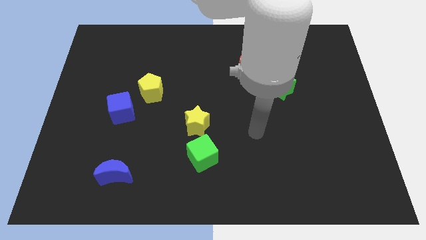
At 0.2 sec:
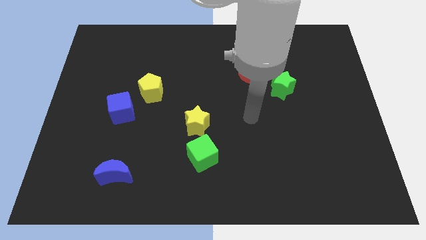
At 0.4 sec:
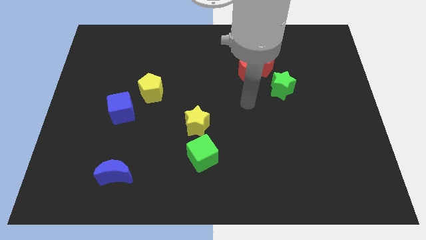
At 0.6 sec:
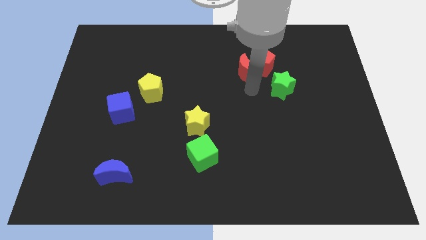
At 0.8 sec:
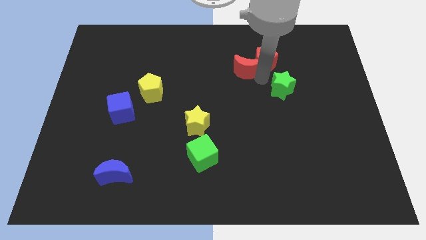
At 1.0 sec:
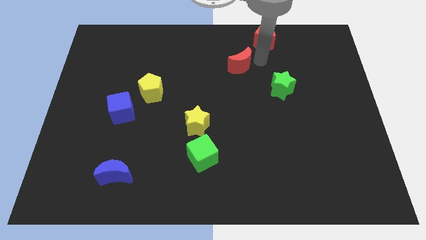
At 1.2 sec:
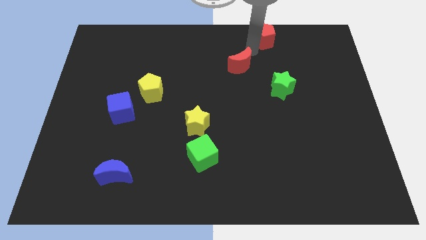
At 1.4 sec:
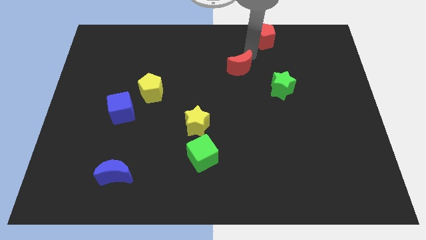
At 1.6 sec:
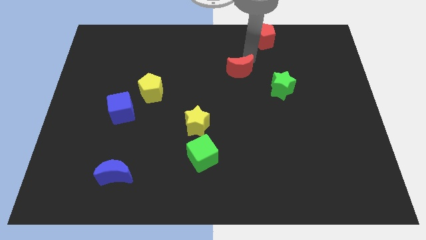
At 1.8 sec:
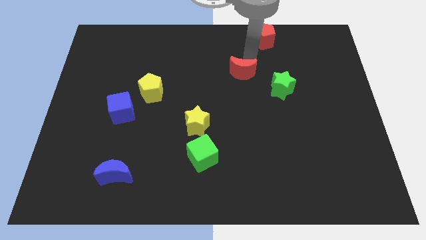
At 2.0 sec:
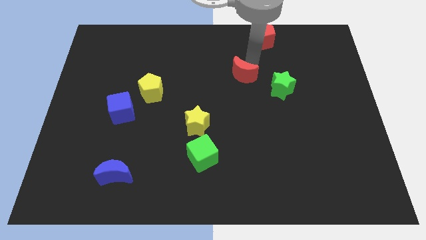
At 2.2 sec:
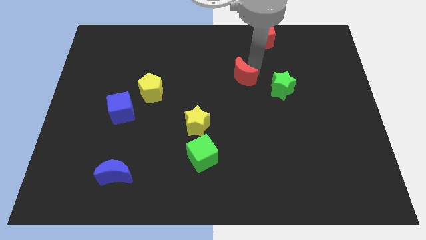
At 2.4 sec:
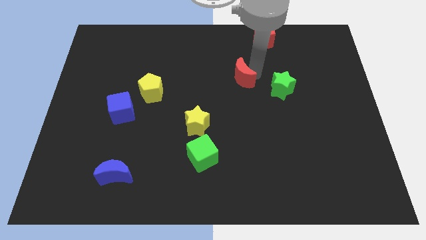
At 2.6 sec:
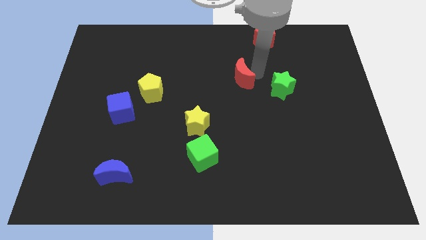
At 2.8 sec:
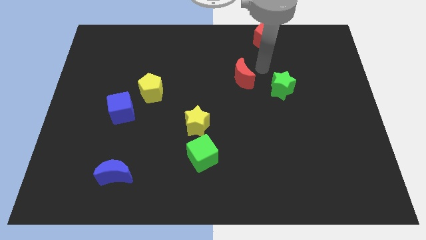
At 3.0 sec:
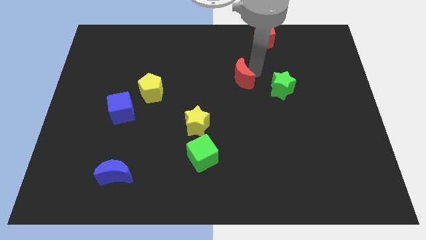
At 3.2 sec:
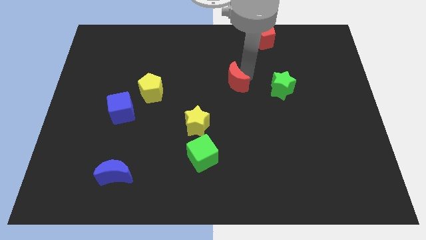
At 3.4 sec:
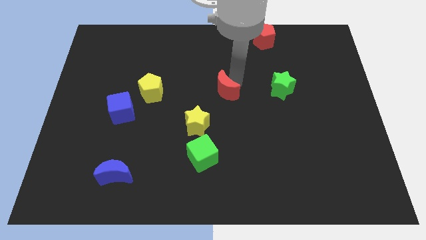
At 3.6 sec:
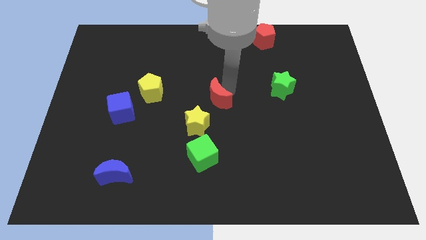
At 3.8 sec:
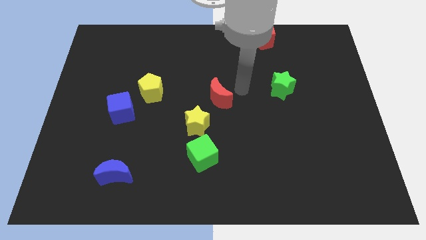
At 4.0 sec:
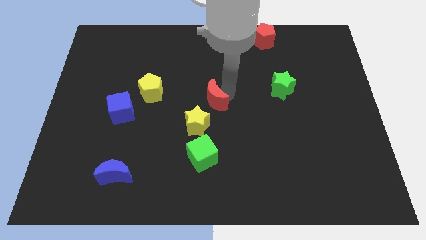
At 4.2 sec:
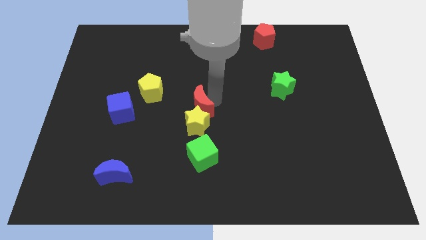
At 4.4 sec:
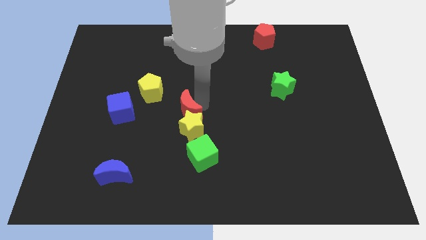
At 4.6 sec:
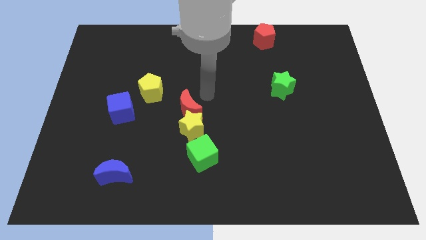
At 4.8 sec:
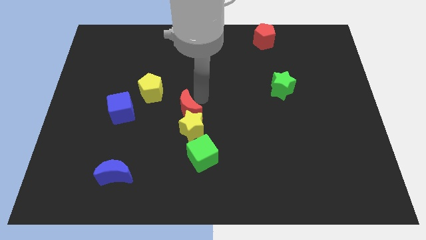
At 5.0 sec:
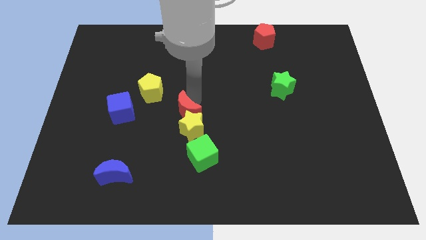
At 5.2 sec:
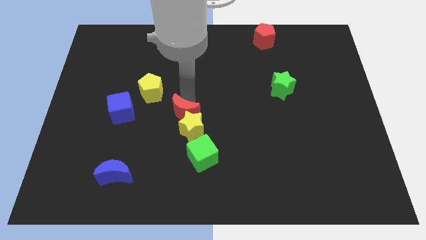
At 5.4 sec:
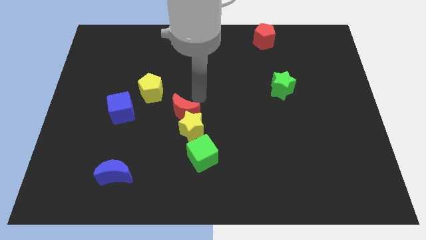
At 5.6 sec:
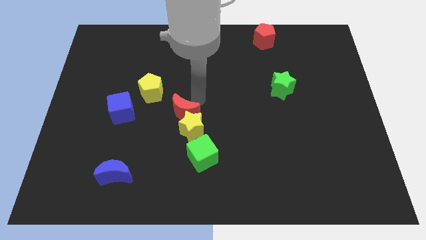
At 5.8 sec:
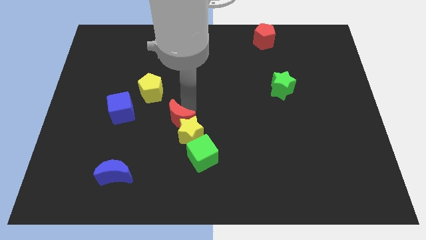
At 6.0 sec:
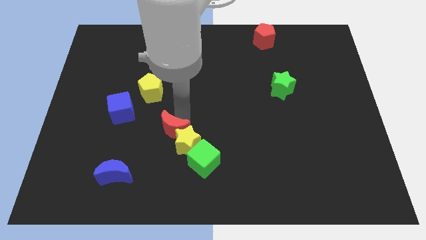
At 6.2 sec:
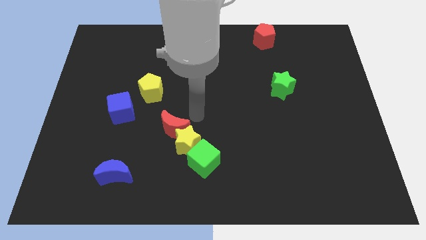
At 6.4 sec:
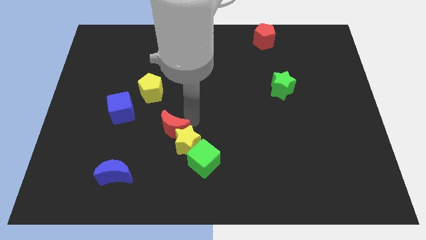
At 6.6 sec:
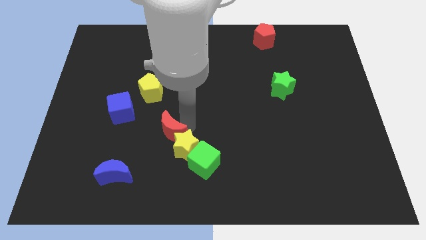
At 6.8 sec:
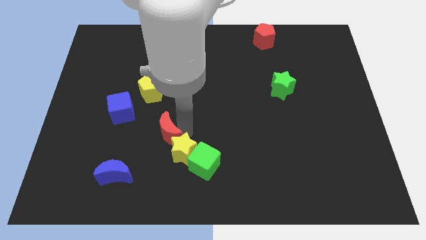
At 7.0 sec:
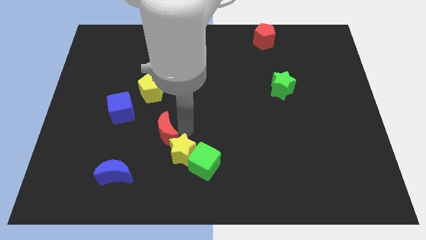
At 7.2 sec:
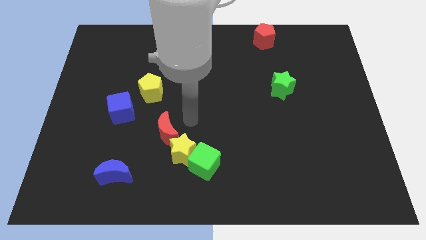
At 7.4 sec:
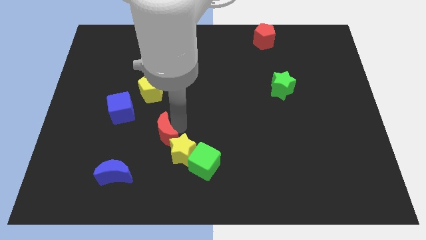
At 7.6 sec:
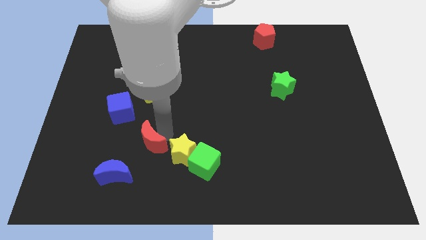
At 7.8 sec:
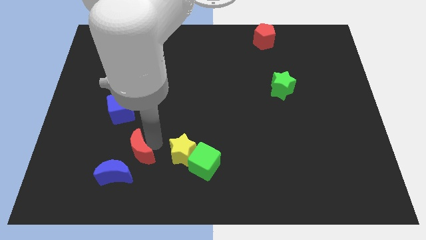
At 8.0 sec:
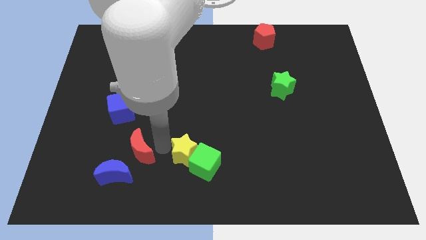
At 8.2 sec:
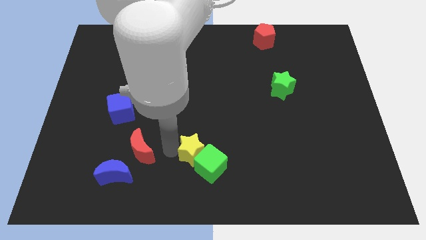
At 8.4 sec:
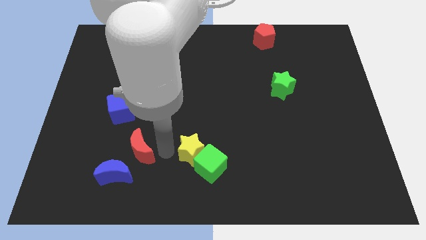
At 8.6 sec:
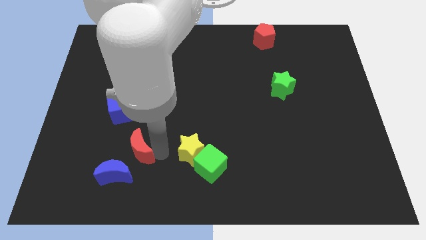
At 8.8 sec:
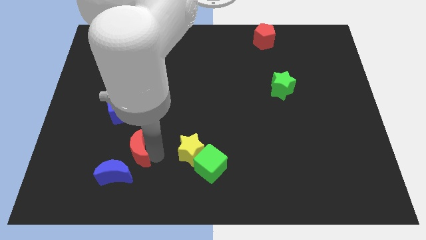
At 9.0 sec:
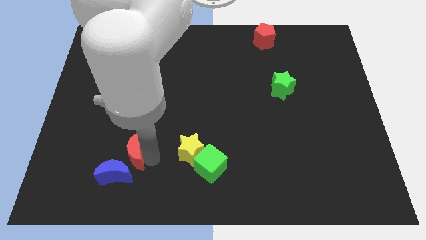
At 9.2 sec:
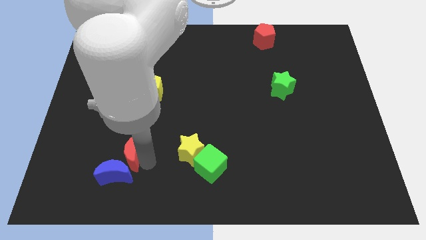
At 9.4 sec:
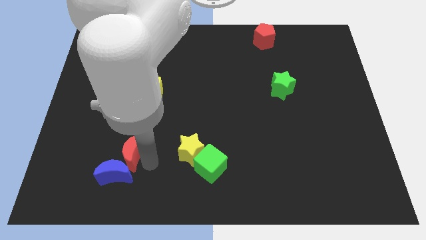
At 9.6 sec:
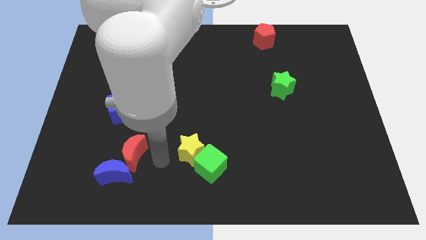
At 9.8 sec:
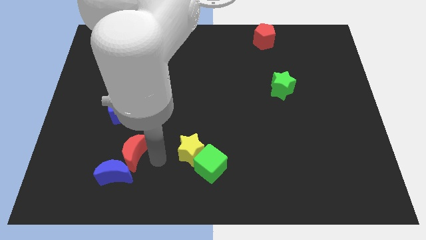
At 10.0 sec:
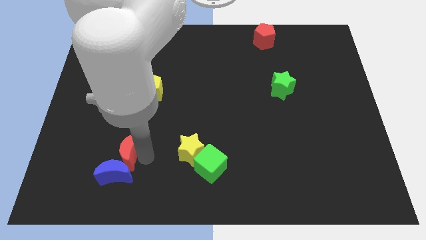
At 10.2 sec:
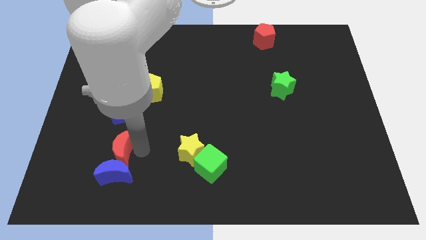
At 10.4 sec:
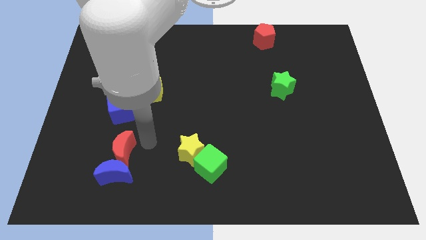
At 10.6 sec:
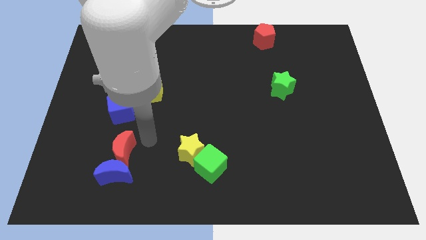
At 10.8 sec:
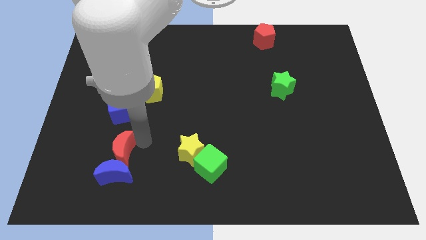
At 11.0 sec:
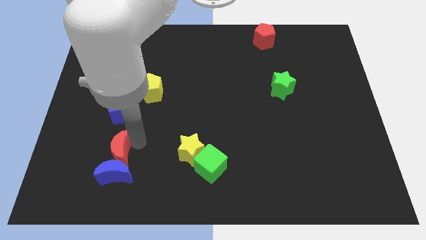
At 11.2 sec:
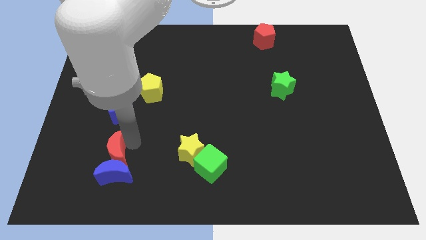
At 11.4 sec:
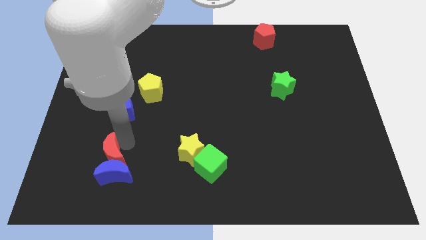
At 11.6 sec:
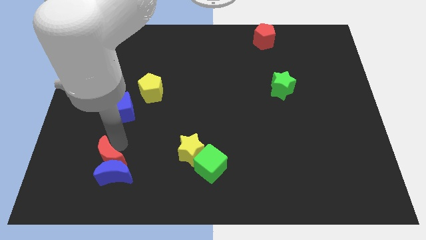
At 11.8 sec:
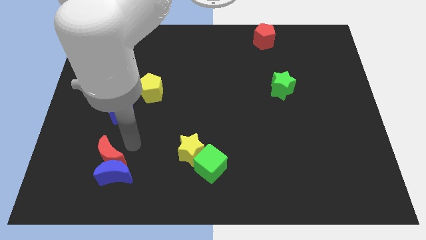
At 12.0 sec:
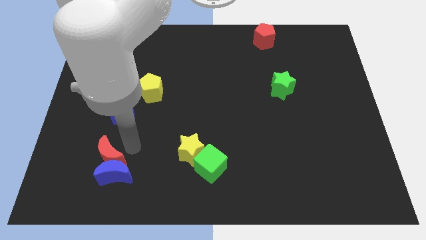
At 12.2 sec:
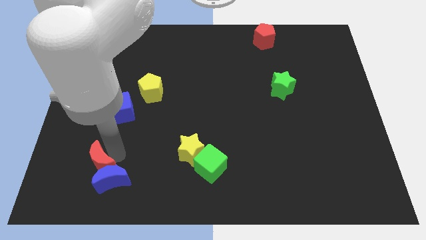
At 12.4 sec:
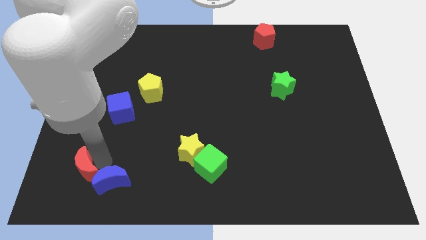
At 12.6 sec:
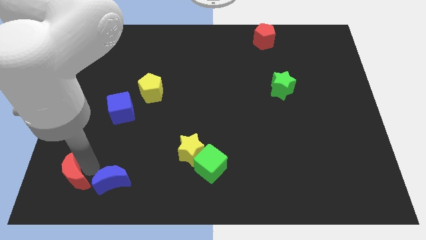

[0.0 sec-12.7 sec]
push the red moon to the bottom left corner

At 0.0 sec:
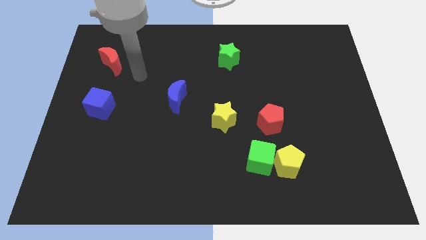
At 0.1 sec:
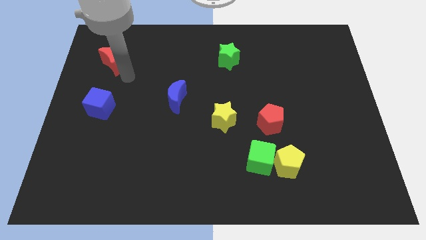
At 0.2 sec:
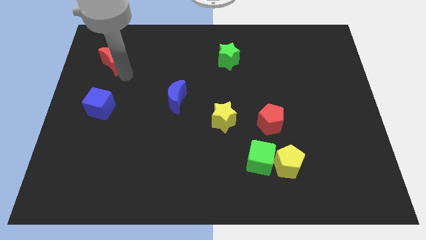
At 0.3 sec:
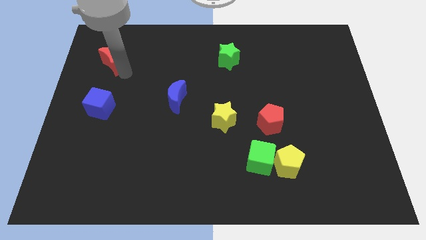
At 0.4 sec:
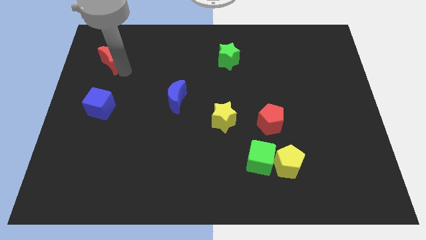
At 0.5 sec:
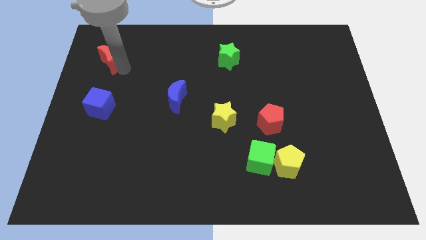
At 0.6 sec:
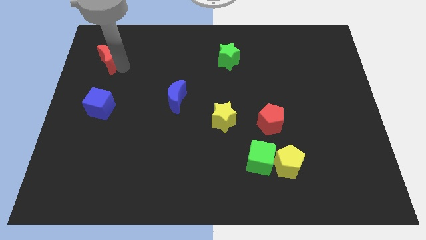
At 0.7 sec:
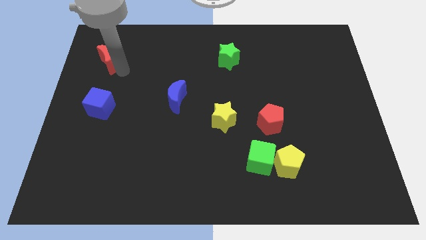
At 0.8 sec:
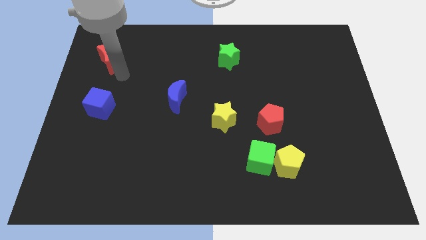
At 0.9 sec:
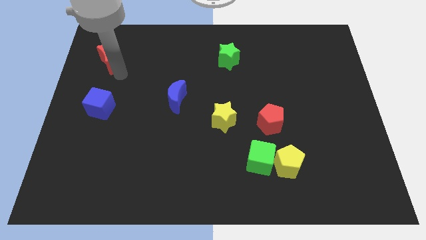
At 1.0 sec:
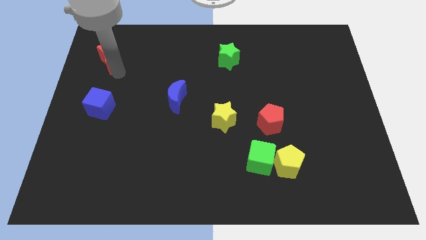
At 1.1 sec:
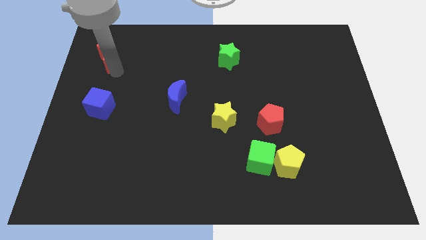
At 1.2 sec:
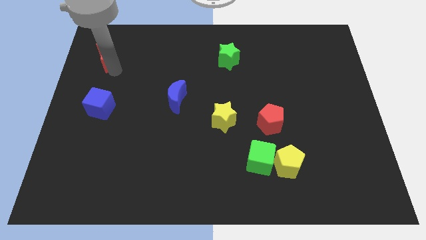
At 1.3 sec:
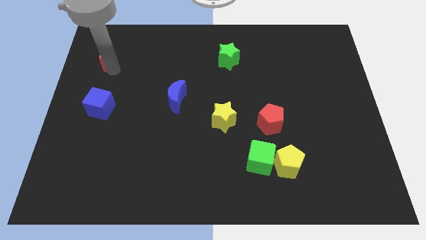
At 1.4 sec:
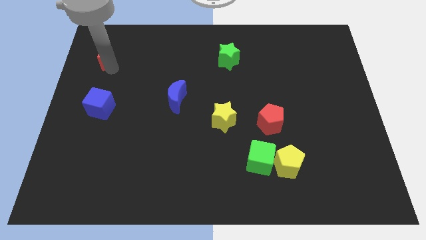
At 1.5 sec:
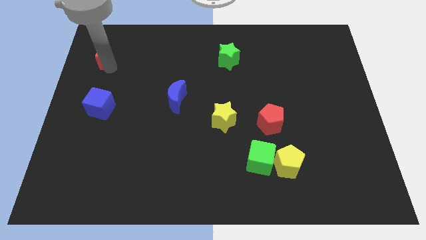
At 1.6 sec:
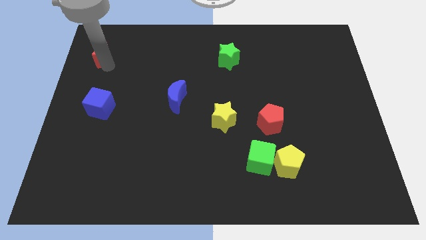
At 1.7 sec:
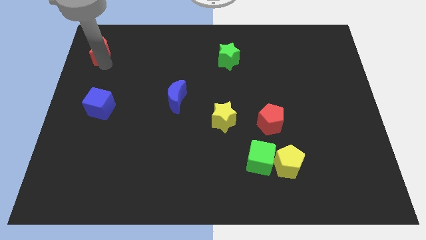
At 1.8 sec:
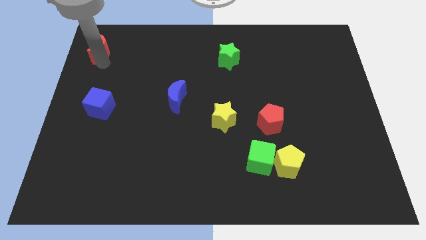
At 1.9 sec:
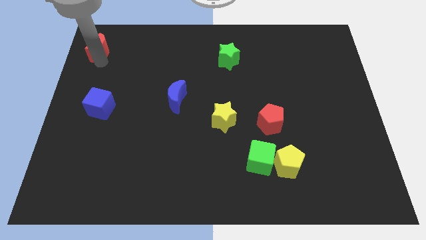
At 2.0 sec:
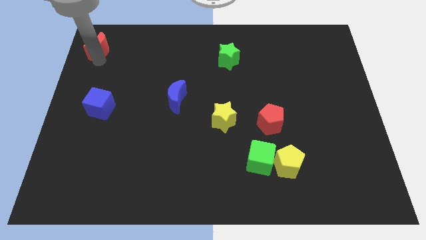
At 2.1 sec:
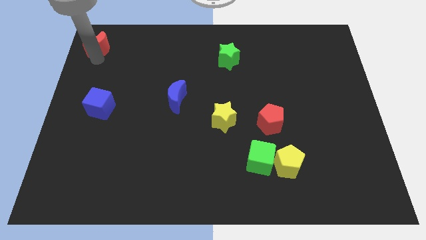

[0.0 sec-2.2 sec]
put the red moon to the top left of the board
